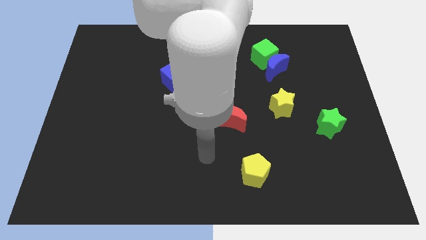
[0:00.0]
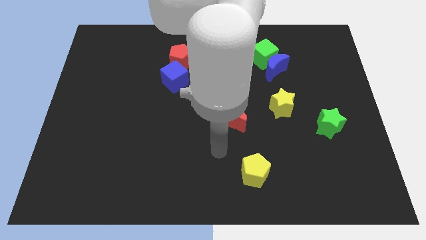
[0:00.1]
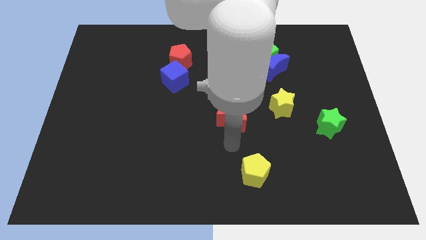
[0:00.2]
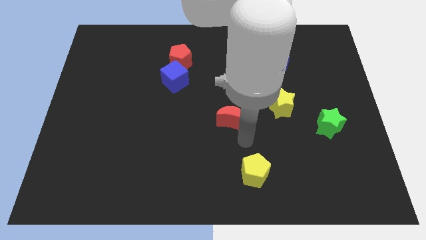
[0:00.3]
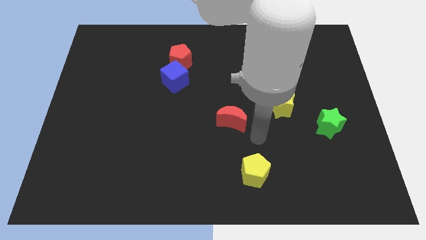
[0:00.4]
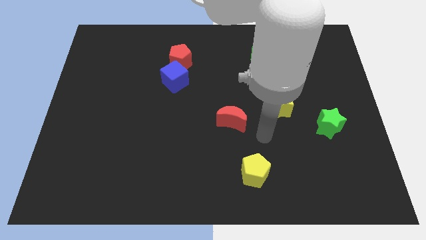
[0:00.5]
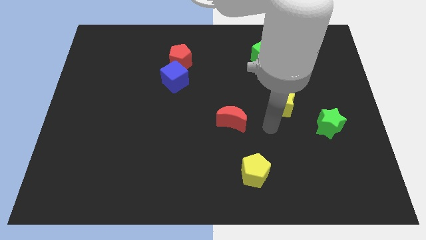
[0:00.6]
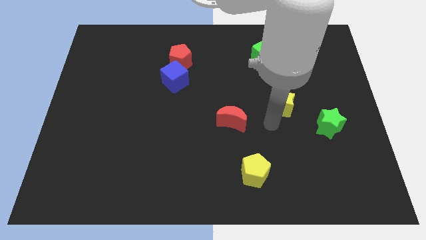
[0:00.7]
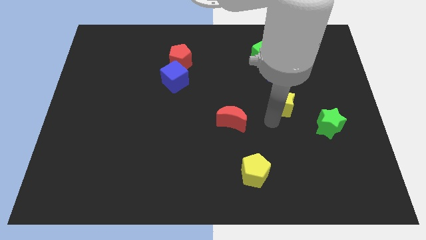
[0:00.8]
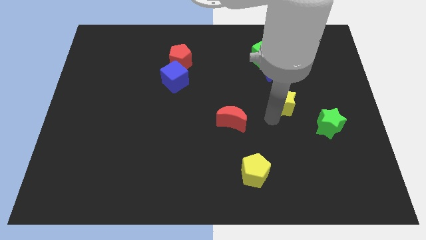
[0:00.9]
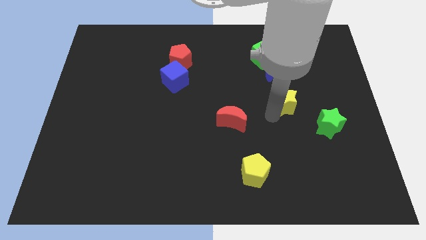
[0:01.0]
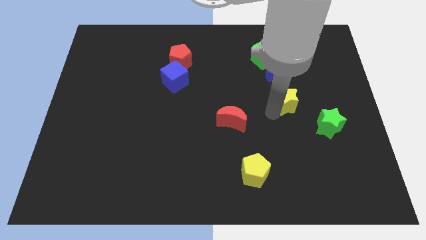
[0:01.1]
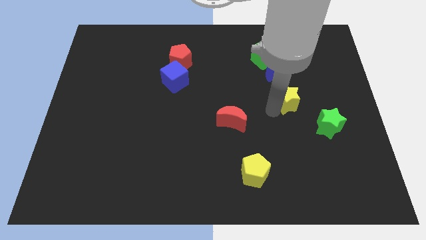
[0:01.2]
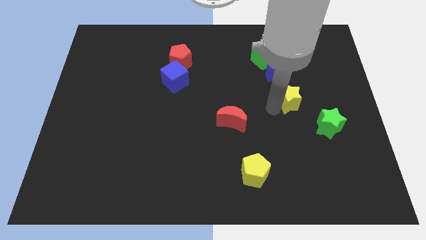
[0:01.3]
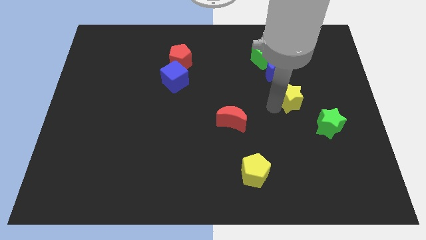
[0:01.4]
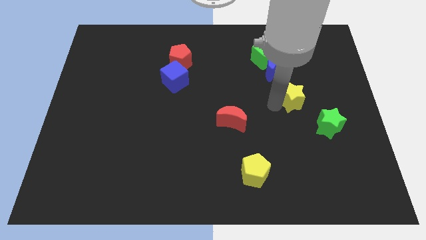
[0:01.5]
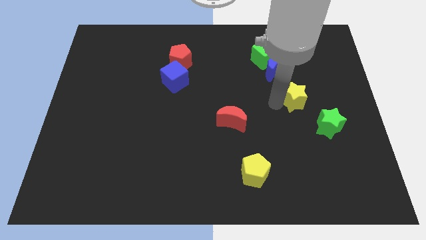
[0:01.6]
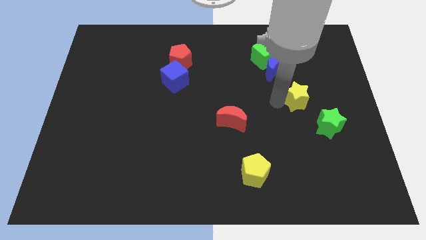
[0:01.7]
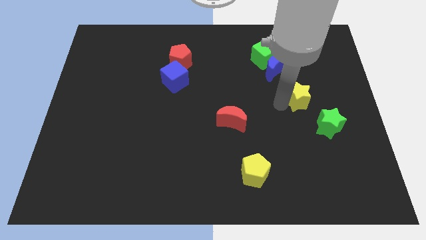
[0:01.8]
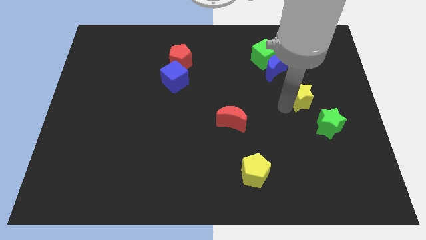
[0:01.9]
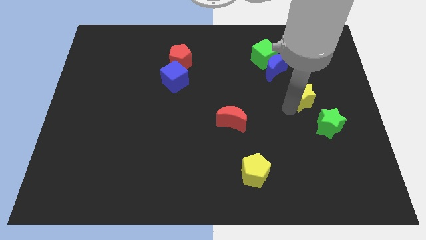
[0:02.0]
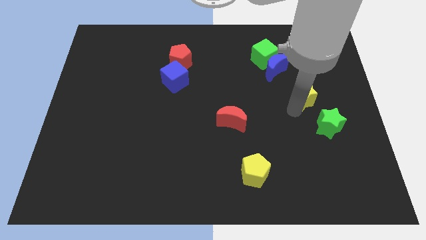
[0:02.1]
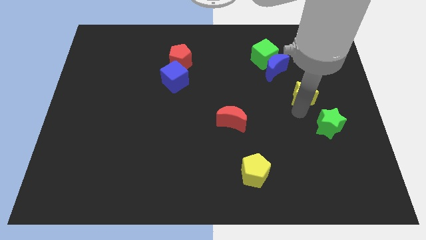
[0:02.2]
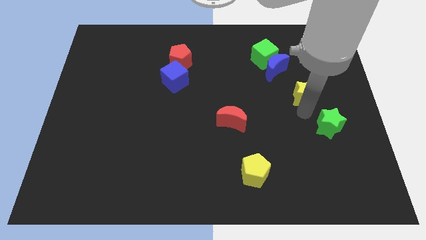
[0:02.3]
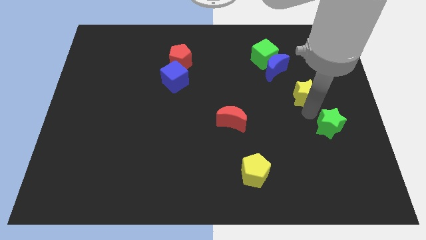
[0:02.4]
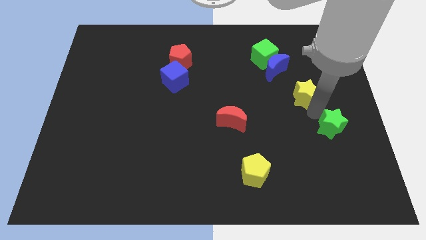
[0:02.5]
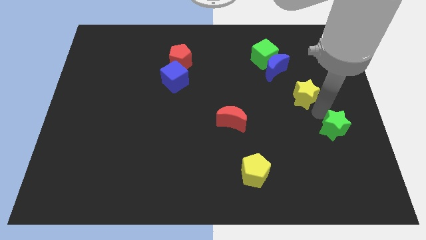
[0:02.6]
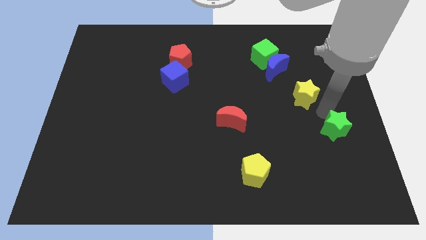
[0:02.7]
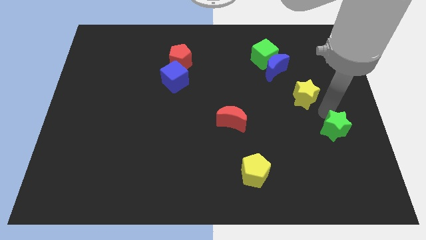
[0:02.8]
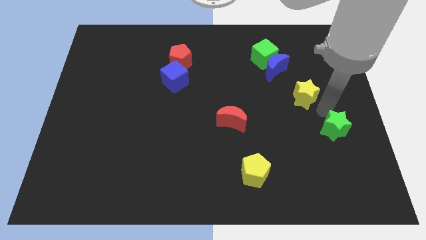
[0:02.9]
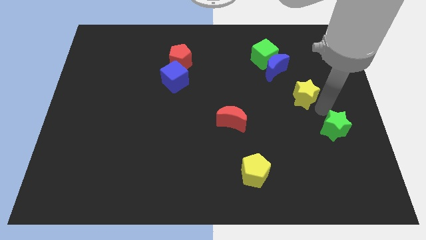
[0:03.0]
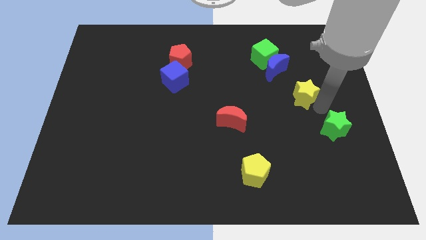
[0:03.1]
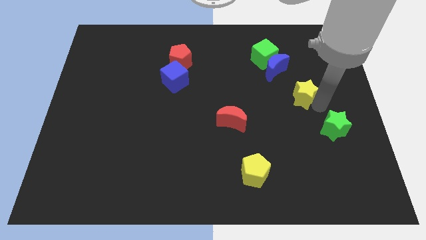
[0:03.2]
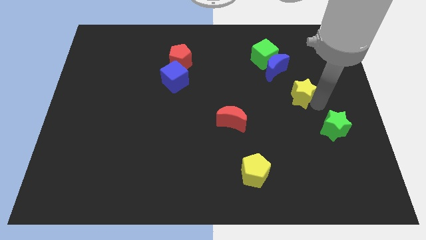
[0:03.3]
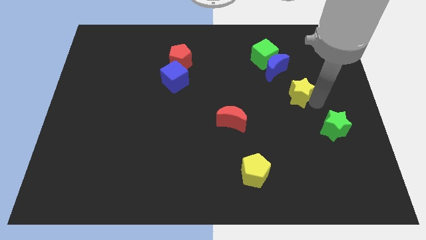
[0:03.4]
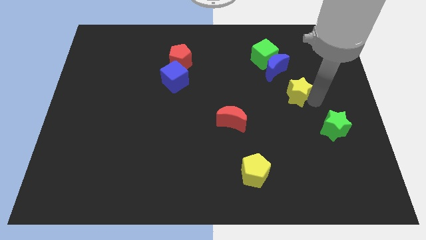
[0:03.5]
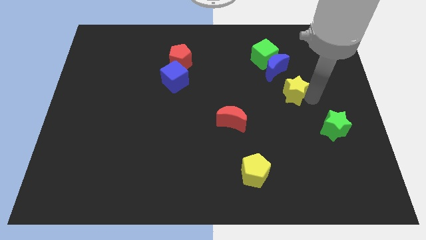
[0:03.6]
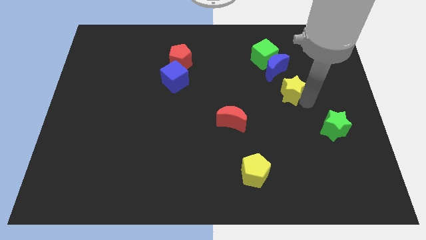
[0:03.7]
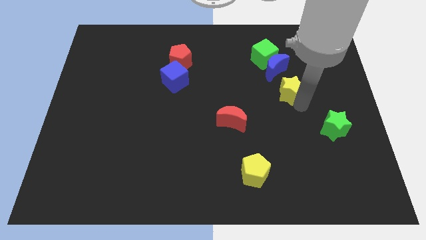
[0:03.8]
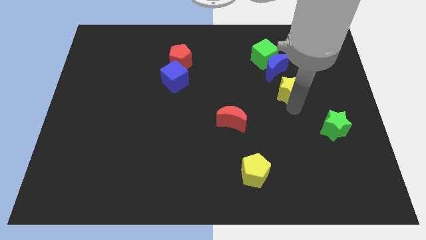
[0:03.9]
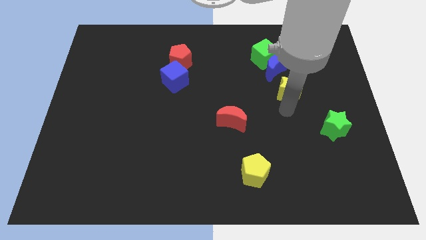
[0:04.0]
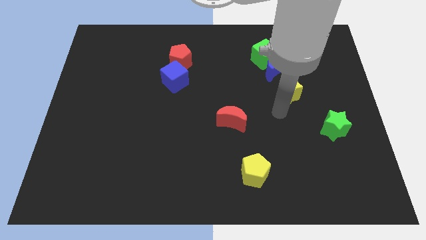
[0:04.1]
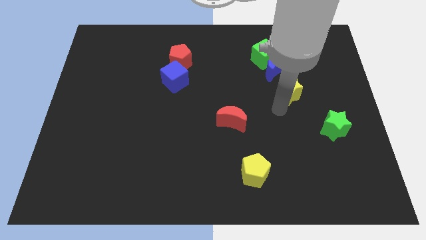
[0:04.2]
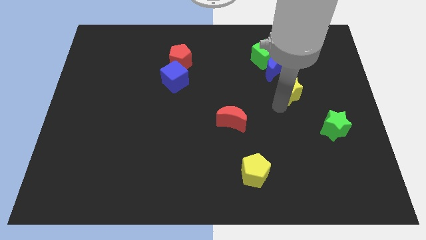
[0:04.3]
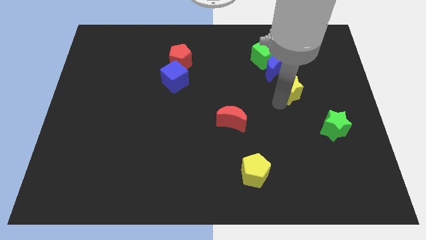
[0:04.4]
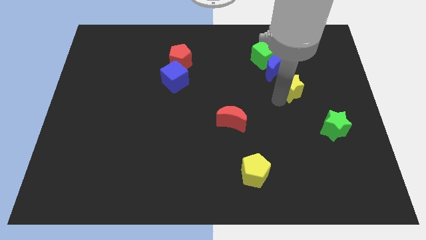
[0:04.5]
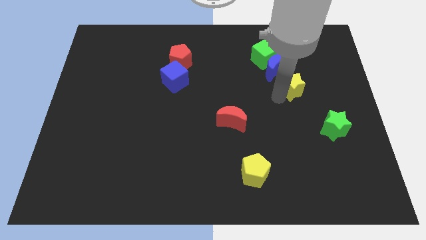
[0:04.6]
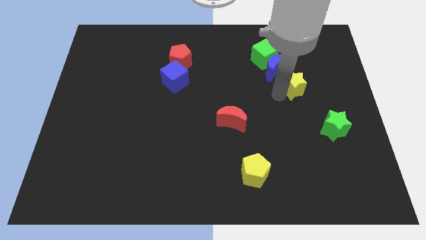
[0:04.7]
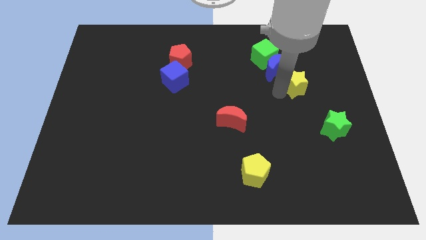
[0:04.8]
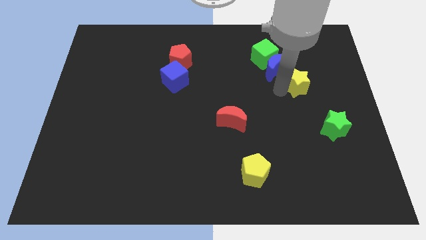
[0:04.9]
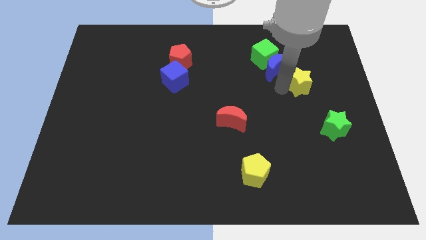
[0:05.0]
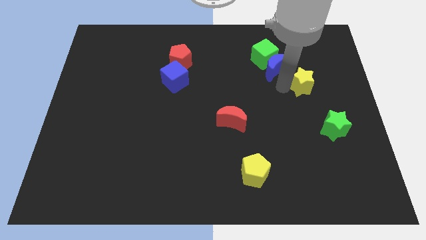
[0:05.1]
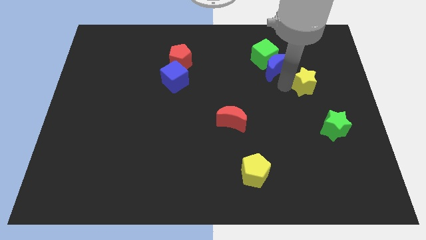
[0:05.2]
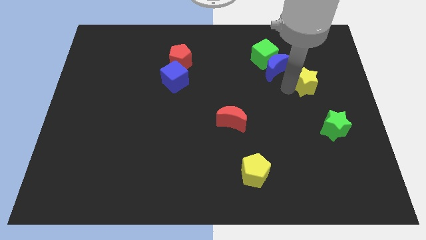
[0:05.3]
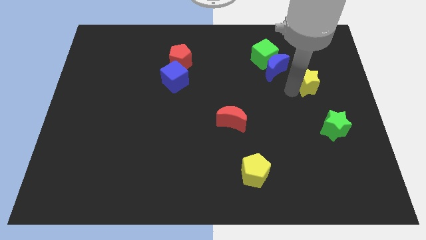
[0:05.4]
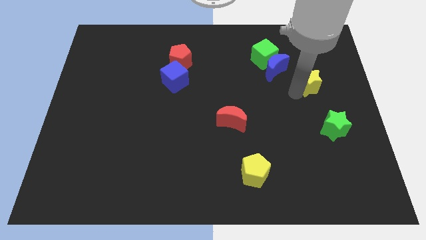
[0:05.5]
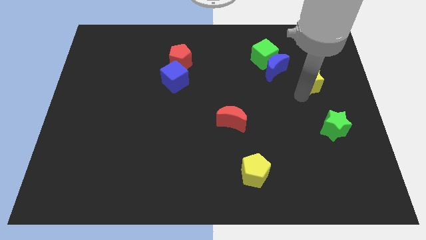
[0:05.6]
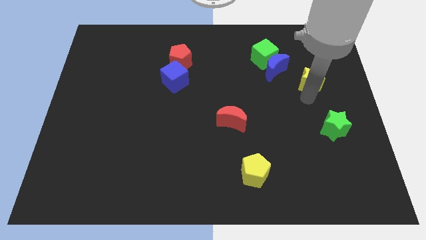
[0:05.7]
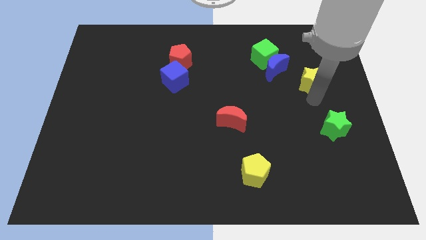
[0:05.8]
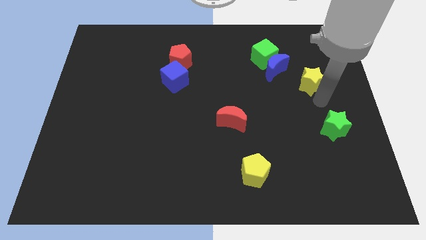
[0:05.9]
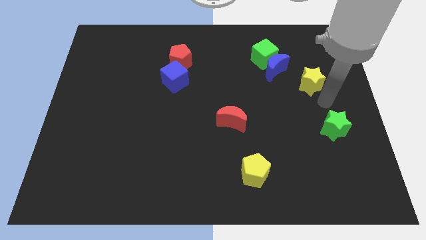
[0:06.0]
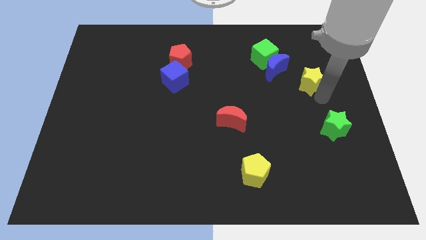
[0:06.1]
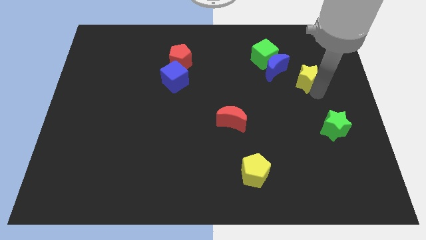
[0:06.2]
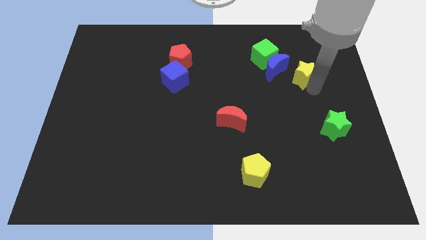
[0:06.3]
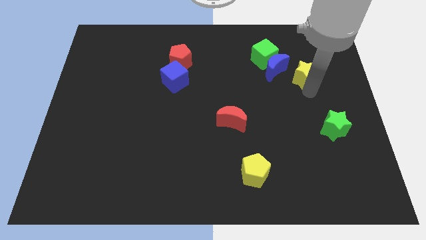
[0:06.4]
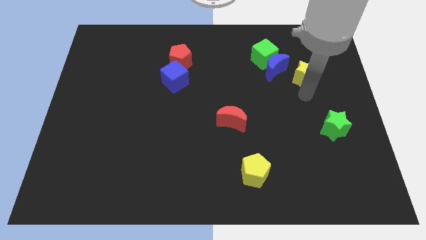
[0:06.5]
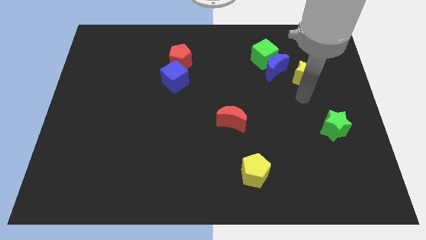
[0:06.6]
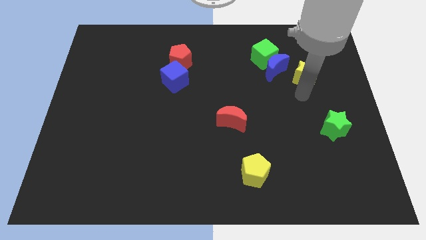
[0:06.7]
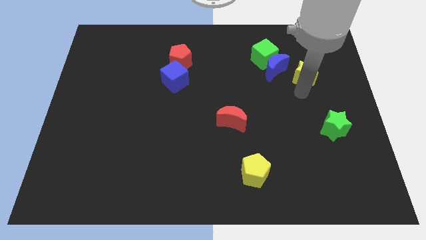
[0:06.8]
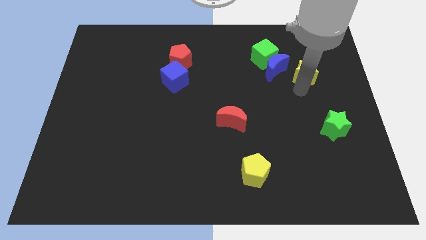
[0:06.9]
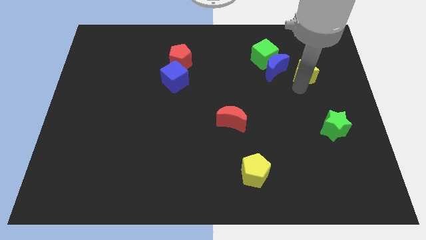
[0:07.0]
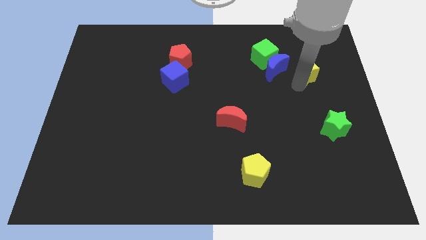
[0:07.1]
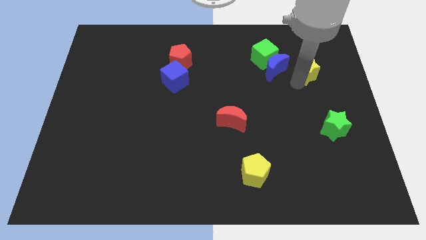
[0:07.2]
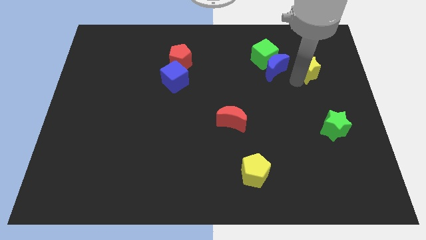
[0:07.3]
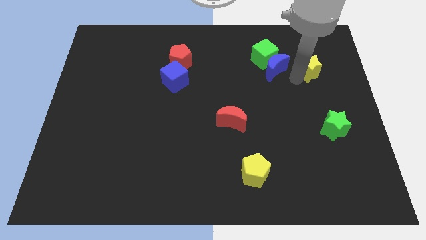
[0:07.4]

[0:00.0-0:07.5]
push the yellow star right of the green cube
